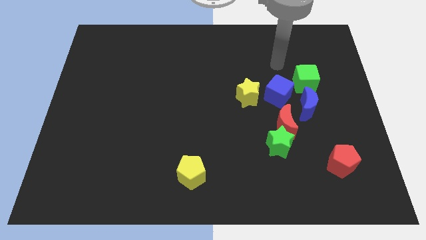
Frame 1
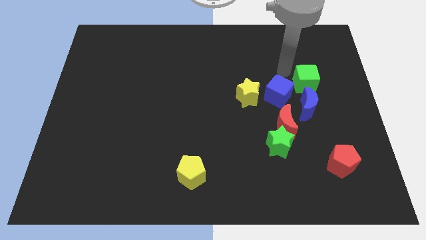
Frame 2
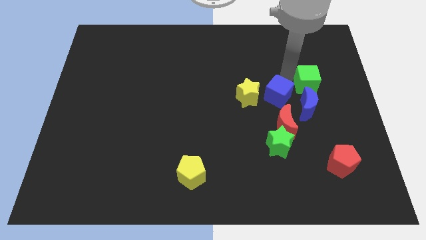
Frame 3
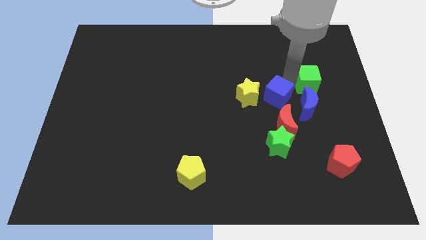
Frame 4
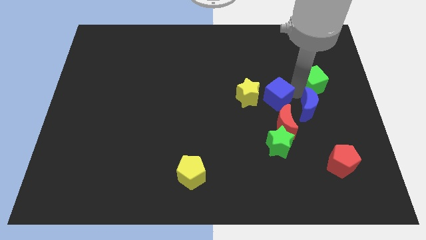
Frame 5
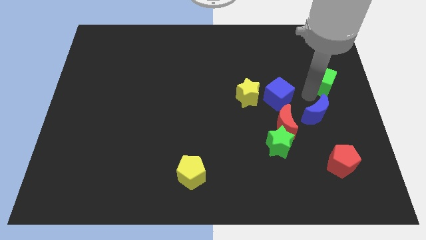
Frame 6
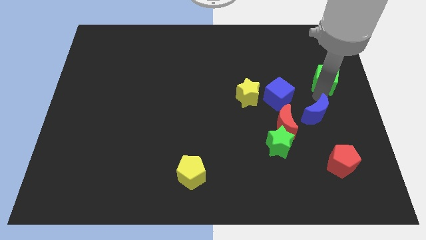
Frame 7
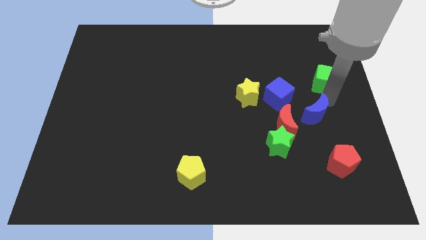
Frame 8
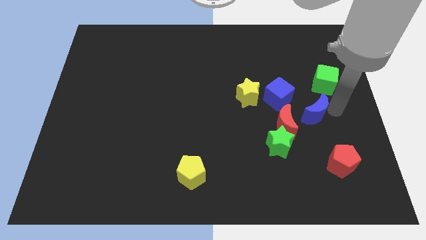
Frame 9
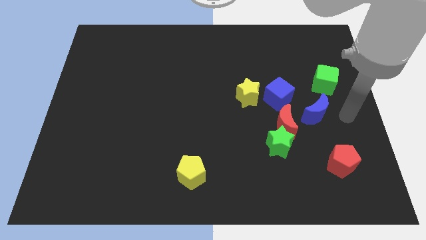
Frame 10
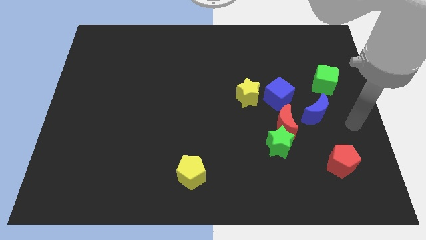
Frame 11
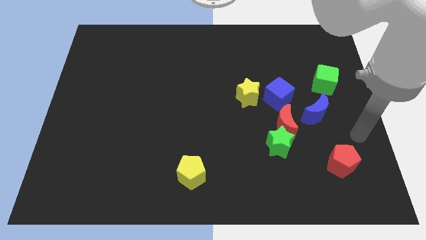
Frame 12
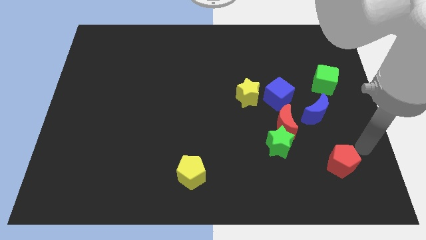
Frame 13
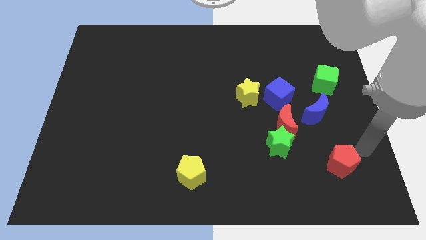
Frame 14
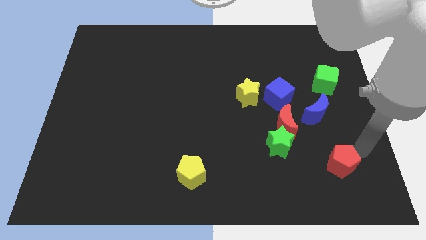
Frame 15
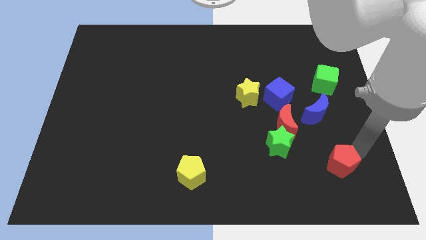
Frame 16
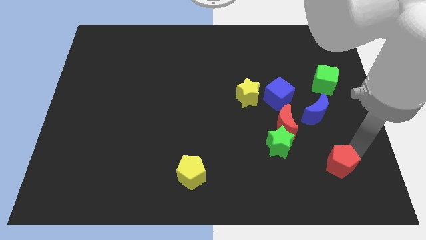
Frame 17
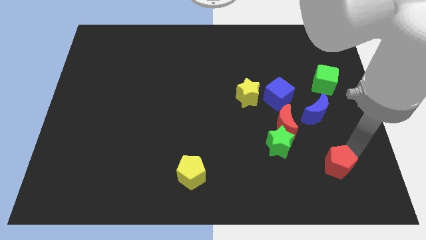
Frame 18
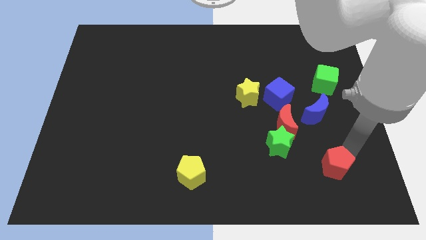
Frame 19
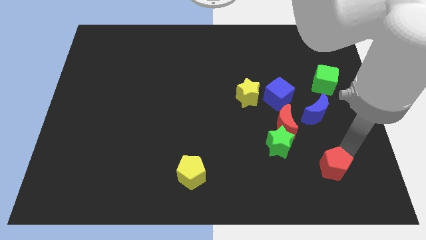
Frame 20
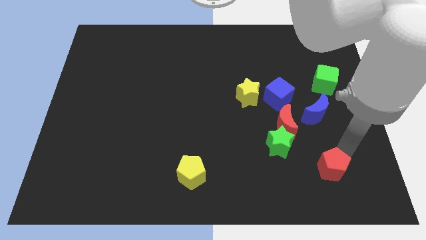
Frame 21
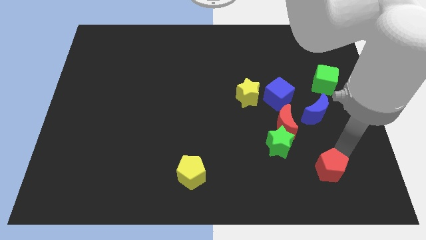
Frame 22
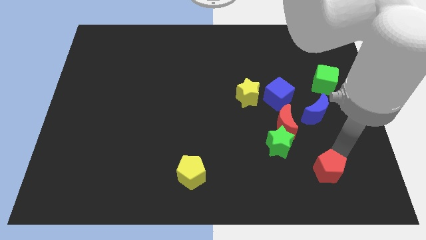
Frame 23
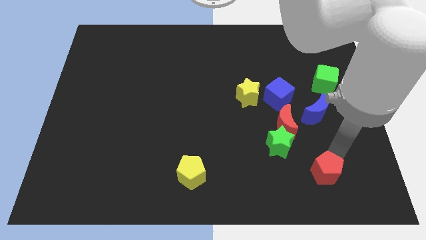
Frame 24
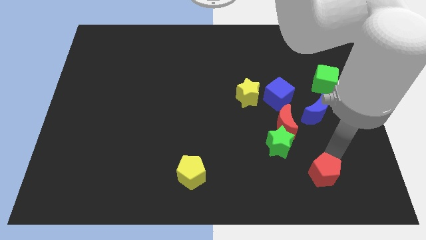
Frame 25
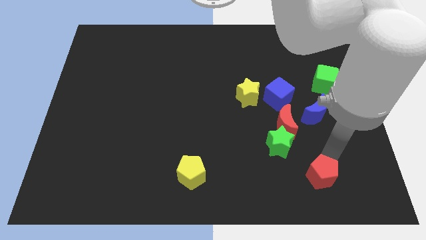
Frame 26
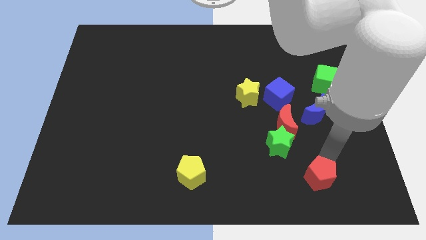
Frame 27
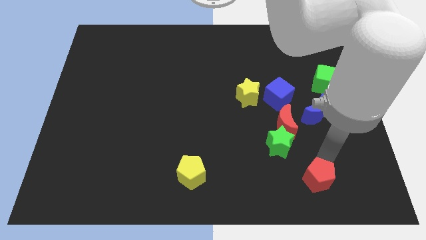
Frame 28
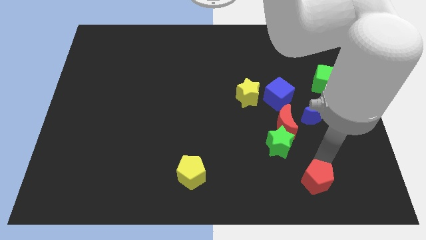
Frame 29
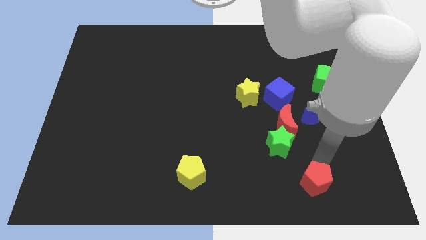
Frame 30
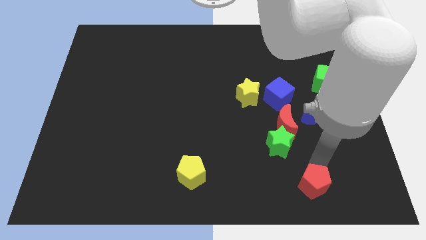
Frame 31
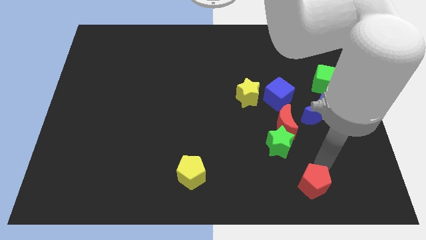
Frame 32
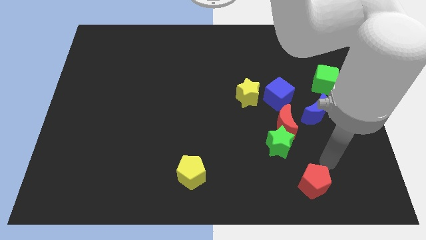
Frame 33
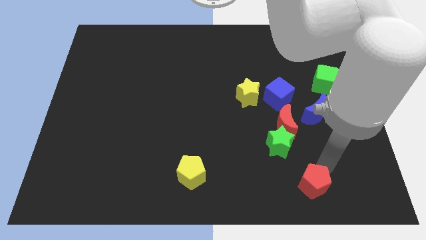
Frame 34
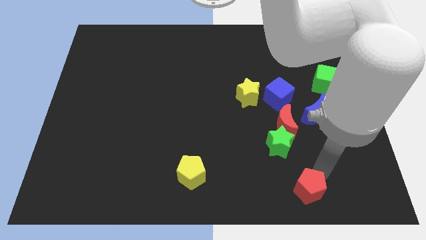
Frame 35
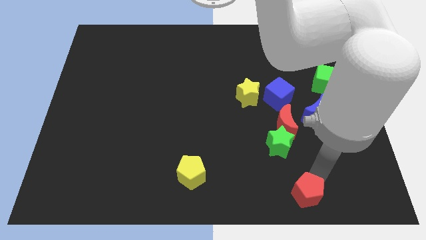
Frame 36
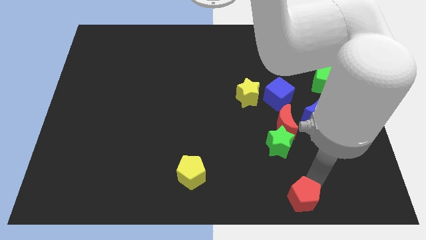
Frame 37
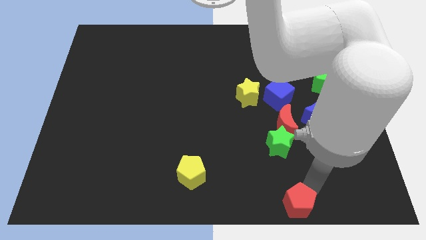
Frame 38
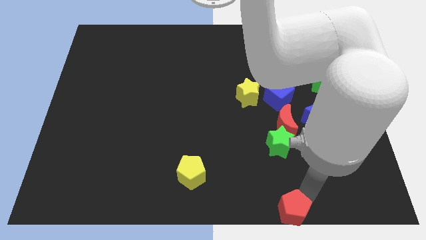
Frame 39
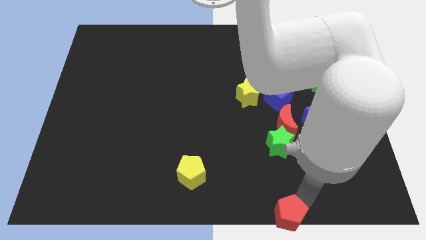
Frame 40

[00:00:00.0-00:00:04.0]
slide the red pentagon to the bottom

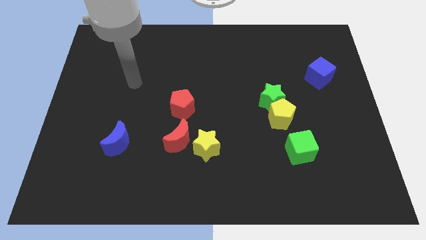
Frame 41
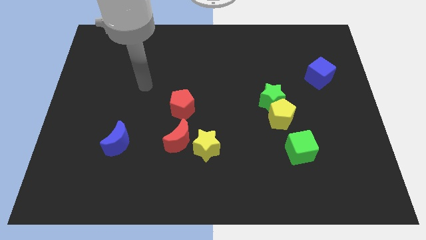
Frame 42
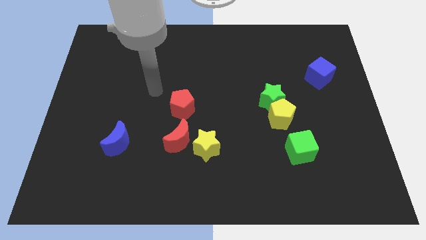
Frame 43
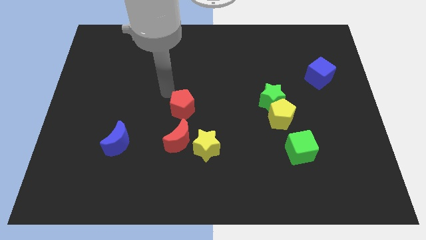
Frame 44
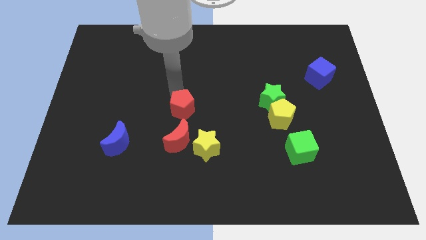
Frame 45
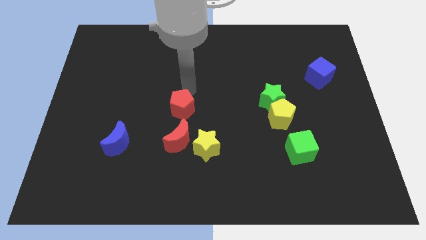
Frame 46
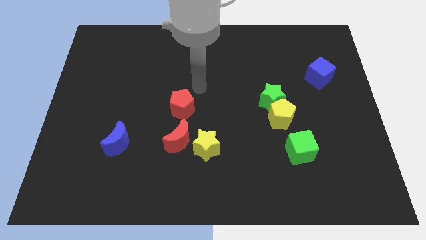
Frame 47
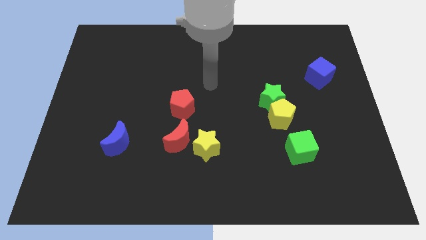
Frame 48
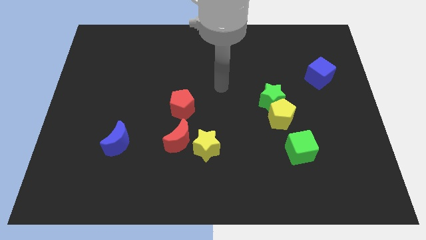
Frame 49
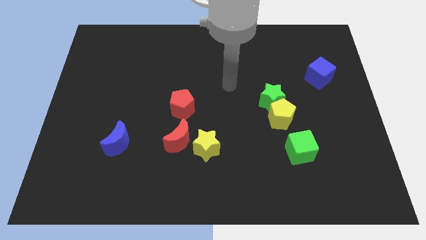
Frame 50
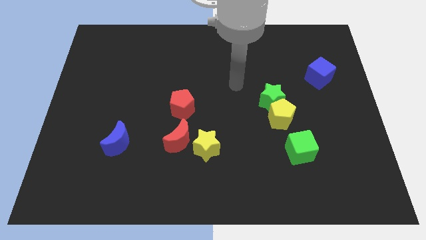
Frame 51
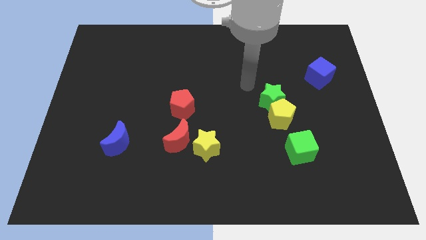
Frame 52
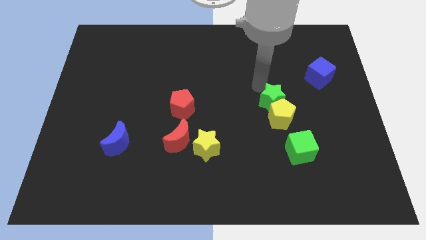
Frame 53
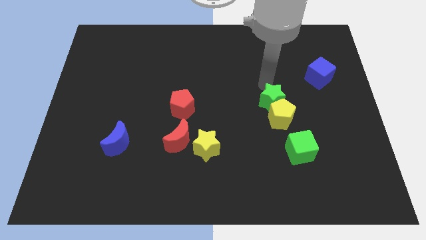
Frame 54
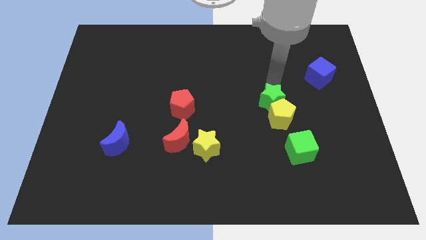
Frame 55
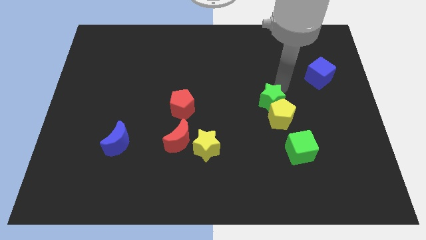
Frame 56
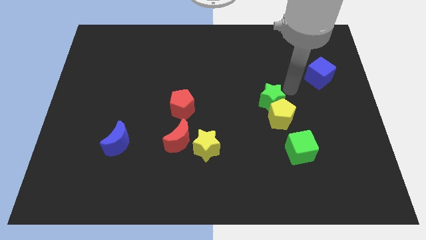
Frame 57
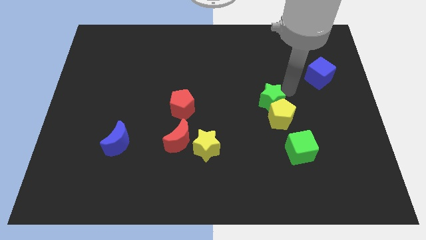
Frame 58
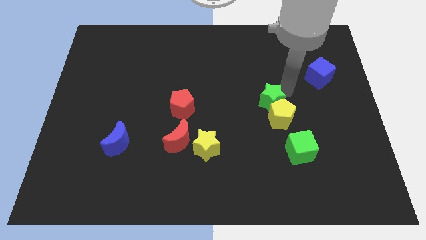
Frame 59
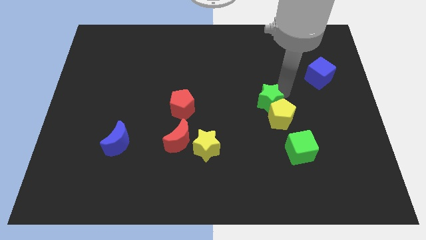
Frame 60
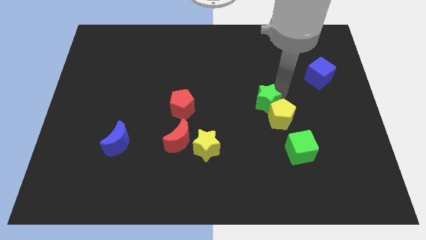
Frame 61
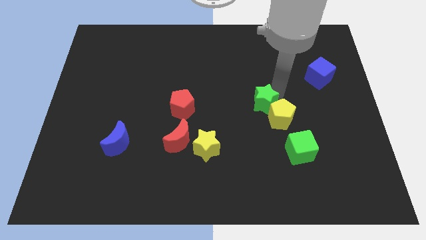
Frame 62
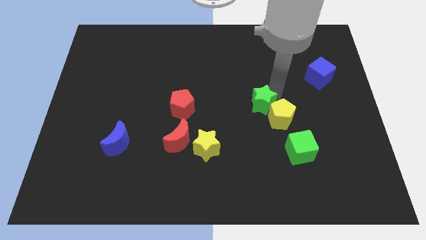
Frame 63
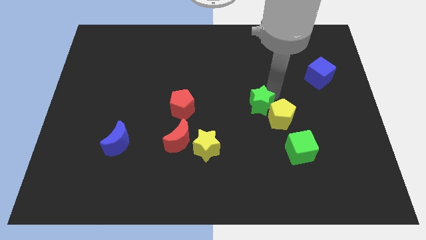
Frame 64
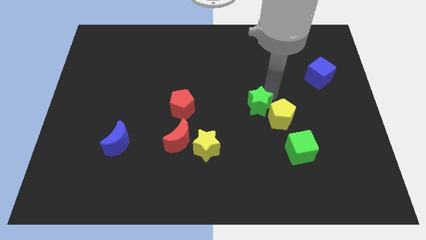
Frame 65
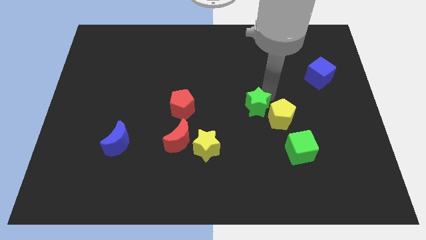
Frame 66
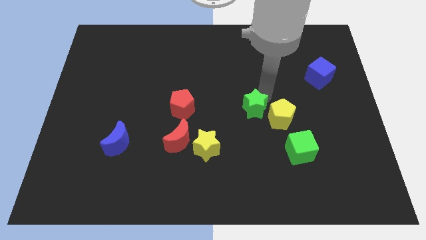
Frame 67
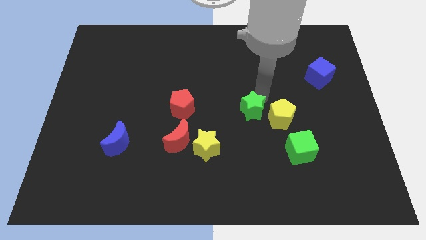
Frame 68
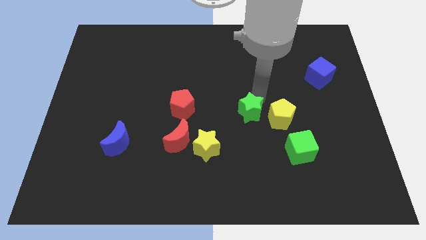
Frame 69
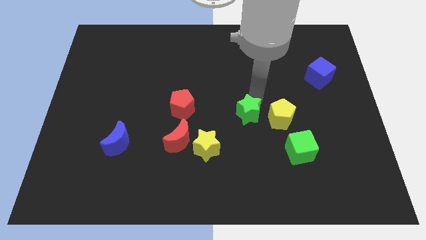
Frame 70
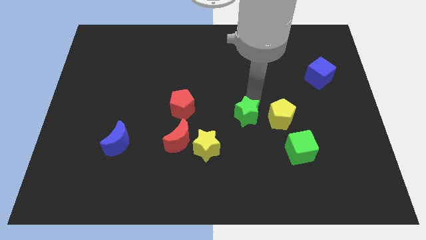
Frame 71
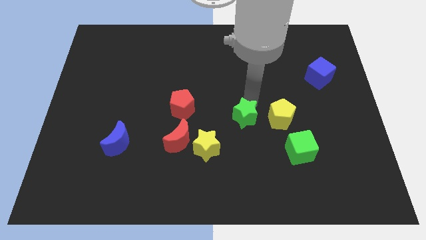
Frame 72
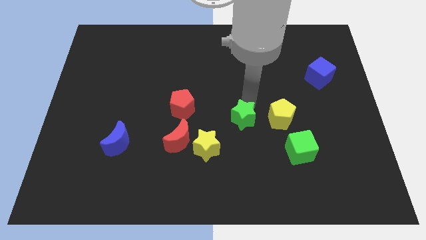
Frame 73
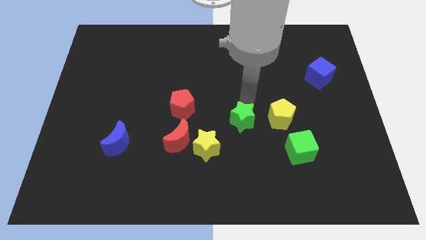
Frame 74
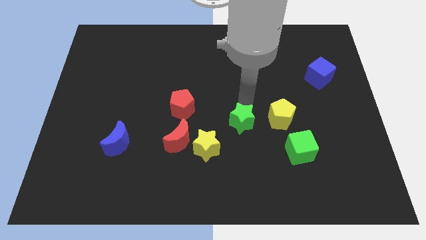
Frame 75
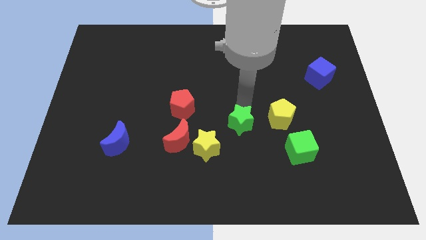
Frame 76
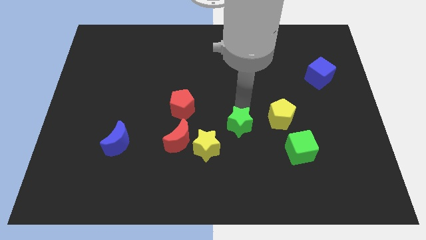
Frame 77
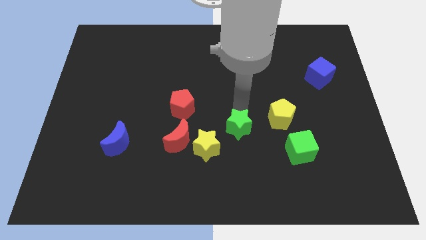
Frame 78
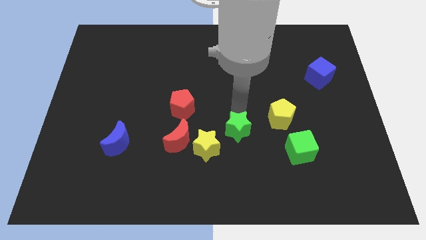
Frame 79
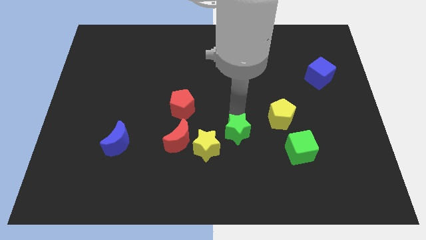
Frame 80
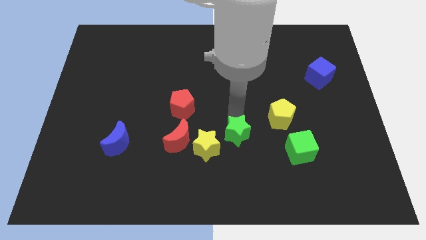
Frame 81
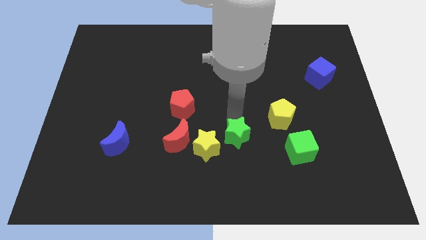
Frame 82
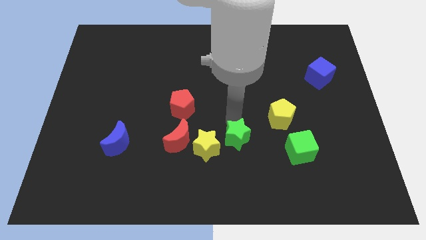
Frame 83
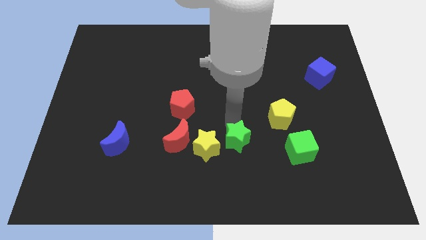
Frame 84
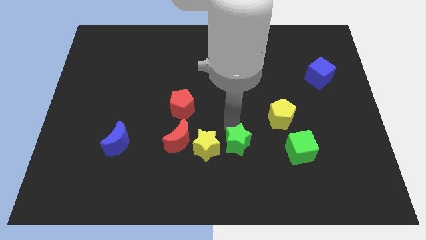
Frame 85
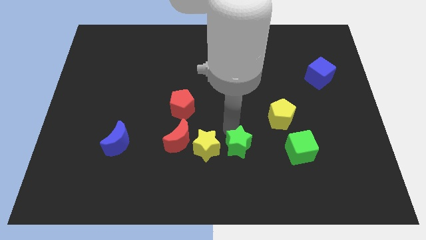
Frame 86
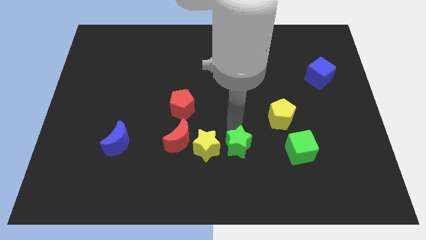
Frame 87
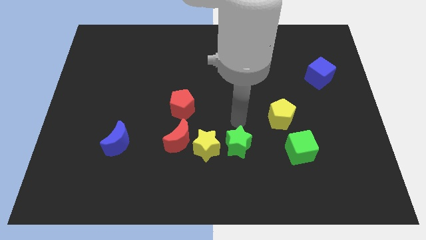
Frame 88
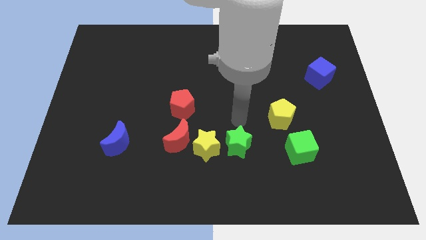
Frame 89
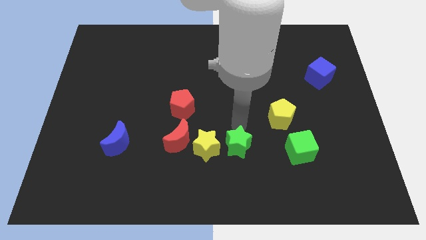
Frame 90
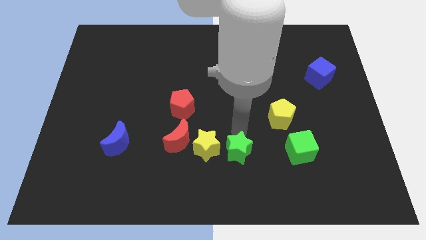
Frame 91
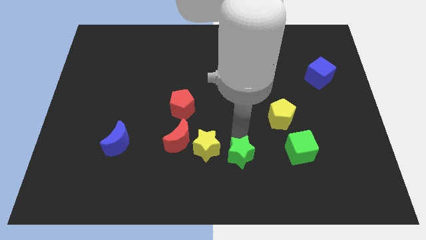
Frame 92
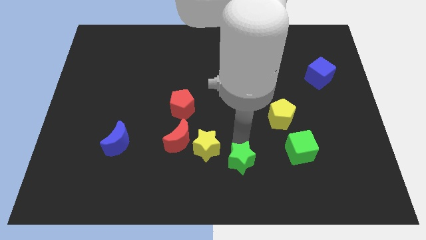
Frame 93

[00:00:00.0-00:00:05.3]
push the green star to the bottom
